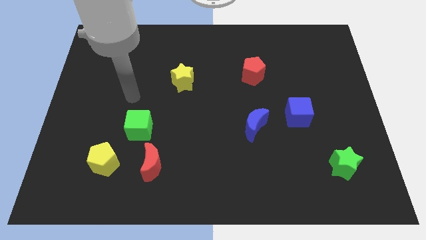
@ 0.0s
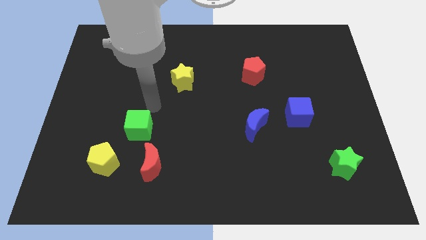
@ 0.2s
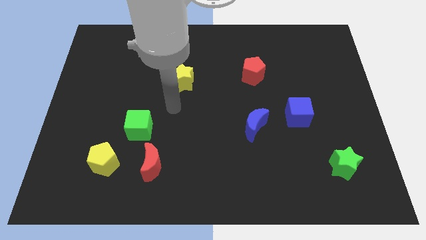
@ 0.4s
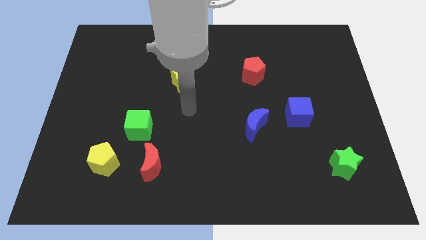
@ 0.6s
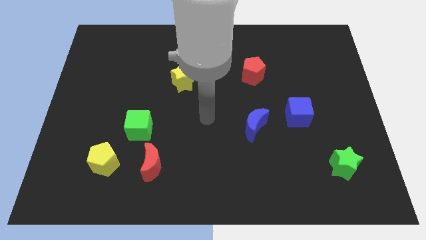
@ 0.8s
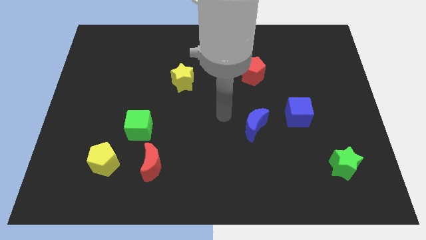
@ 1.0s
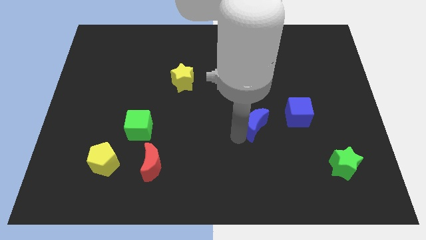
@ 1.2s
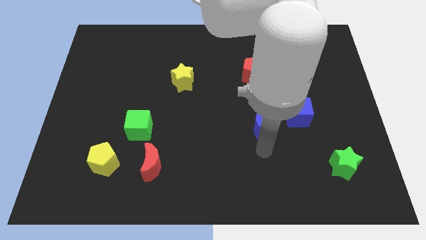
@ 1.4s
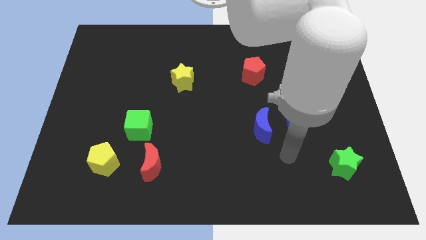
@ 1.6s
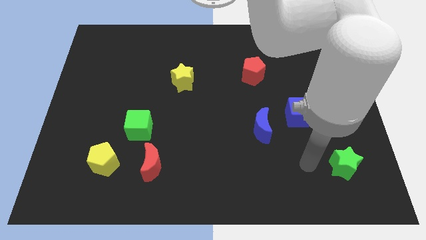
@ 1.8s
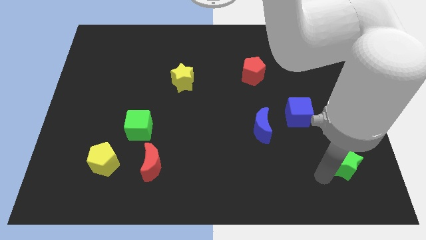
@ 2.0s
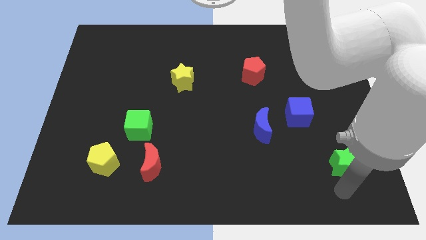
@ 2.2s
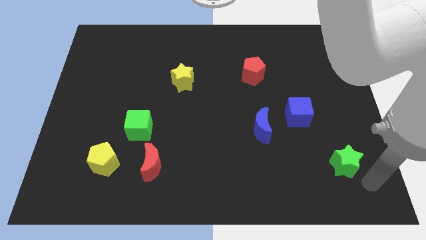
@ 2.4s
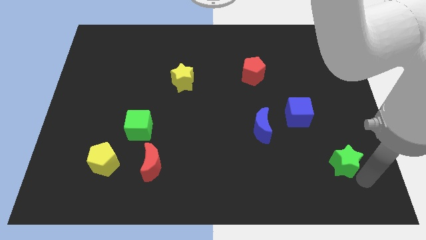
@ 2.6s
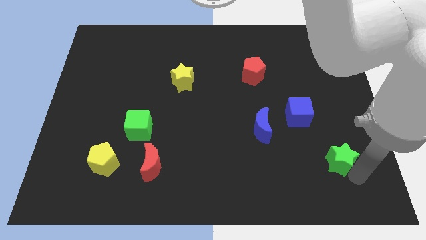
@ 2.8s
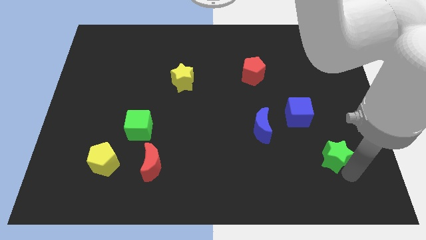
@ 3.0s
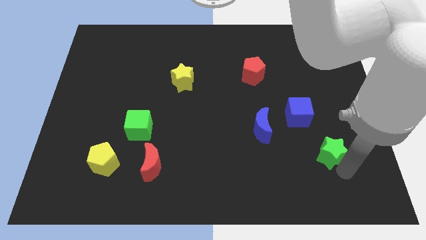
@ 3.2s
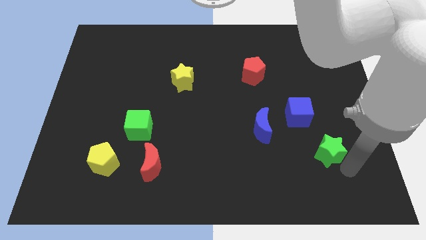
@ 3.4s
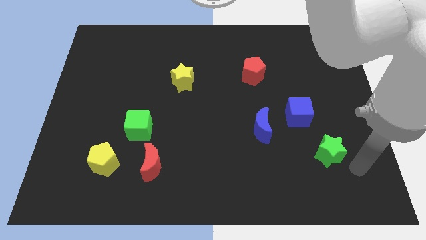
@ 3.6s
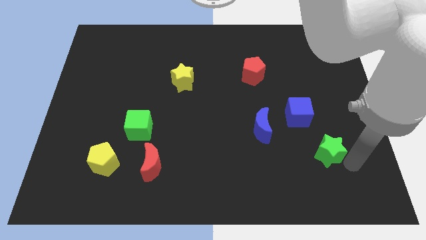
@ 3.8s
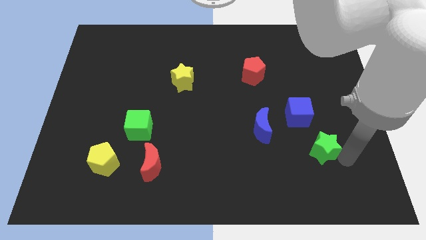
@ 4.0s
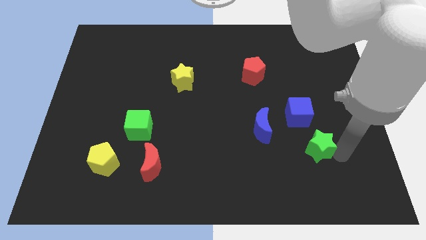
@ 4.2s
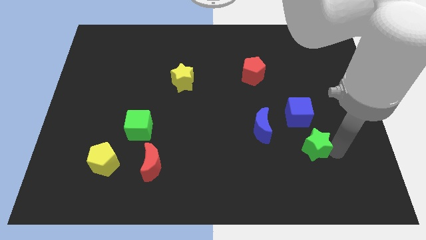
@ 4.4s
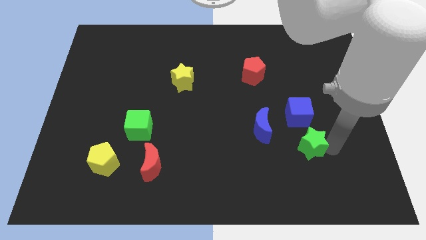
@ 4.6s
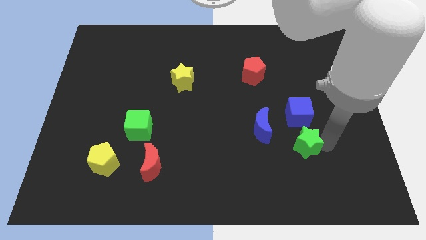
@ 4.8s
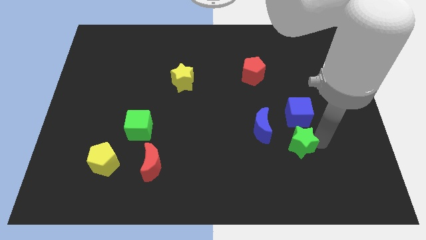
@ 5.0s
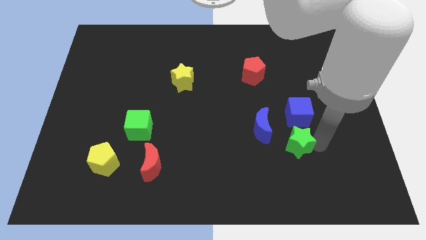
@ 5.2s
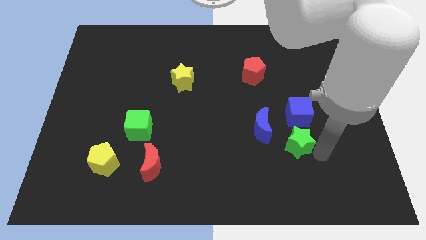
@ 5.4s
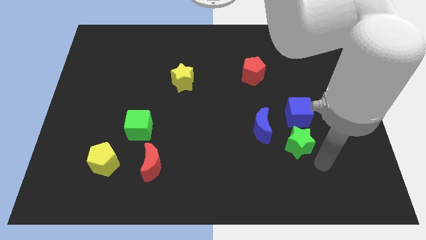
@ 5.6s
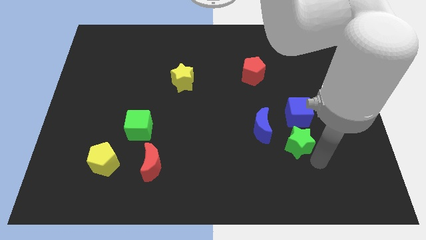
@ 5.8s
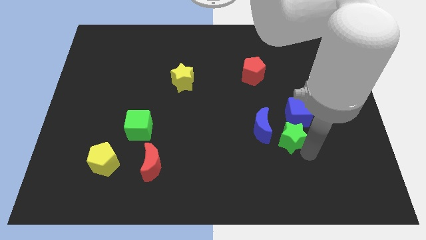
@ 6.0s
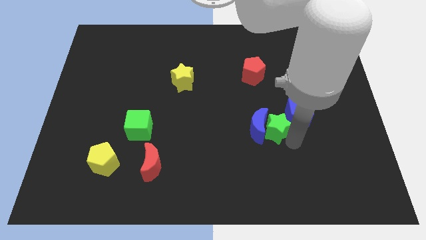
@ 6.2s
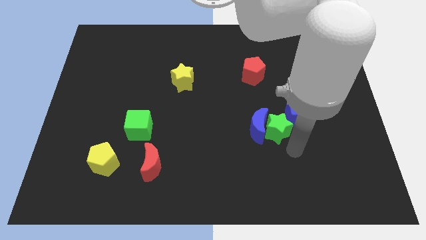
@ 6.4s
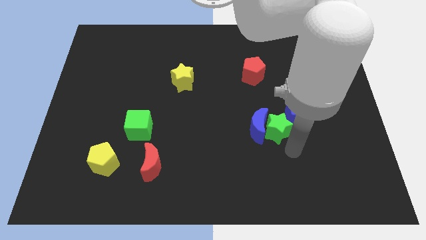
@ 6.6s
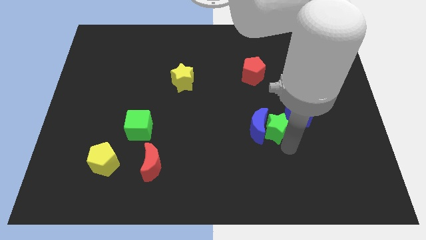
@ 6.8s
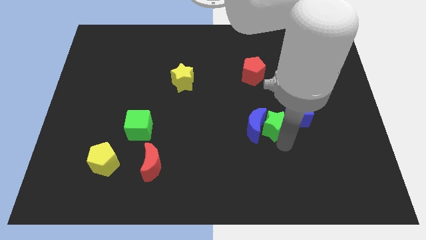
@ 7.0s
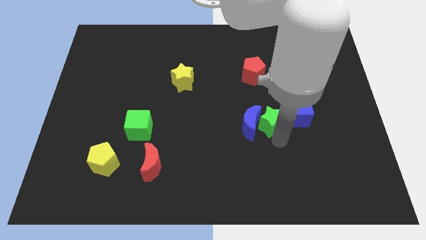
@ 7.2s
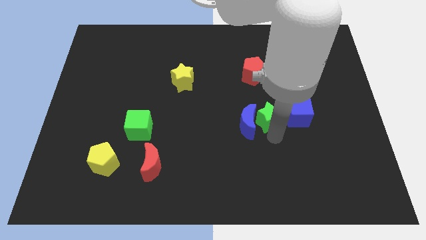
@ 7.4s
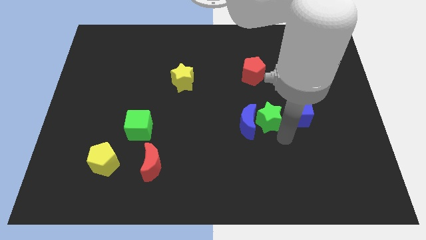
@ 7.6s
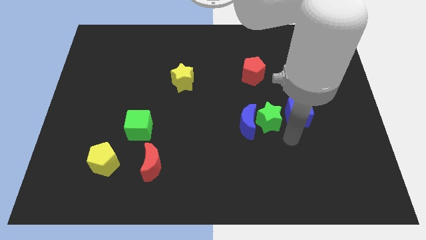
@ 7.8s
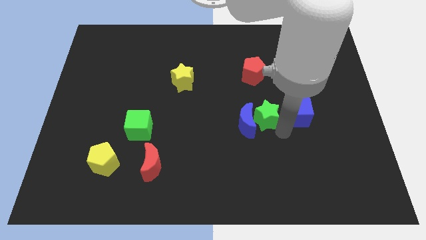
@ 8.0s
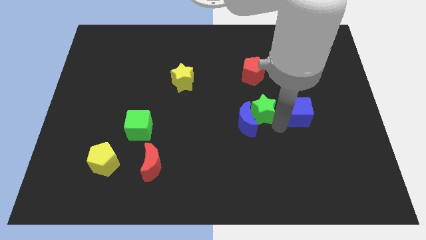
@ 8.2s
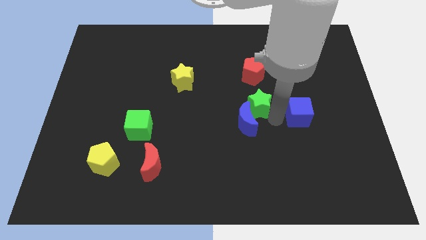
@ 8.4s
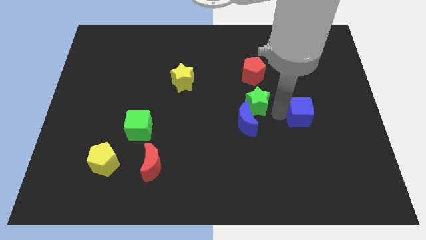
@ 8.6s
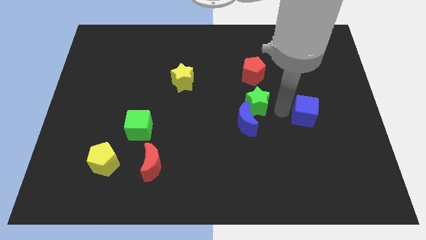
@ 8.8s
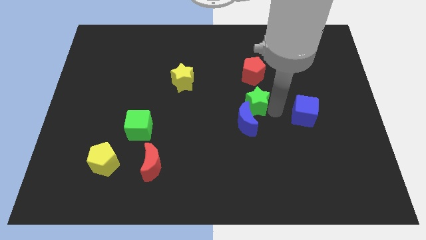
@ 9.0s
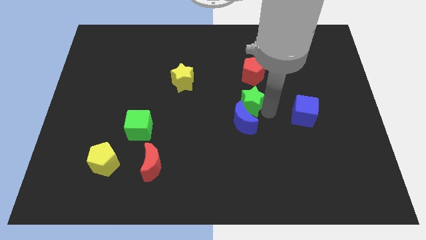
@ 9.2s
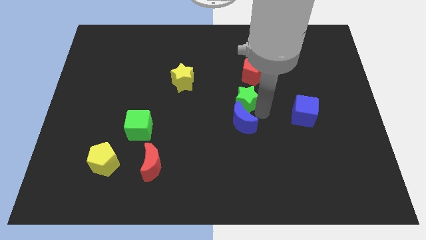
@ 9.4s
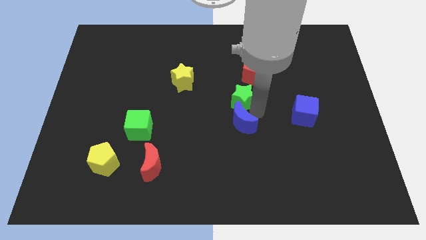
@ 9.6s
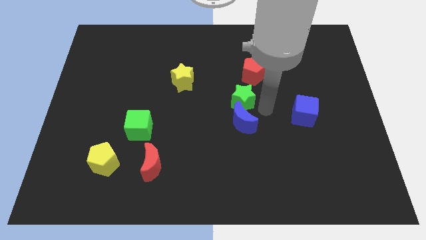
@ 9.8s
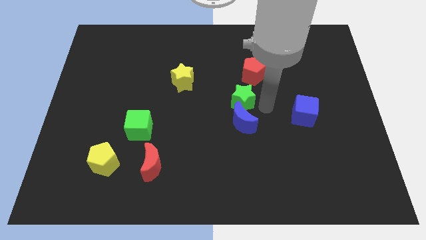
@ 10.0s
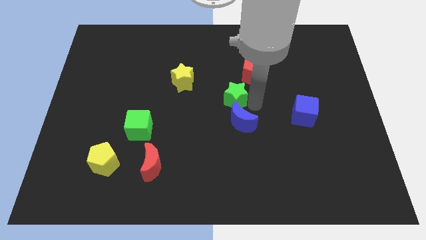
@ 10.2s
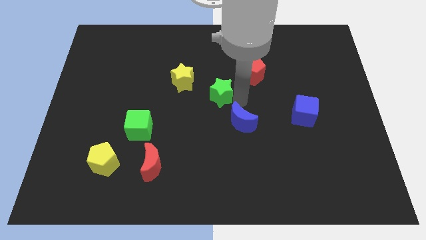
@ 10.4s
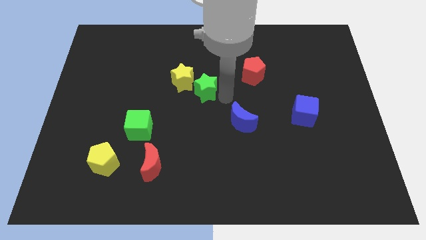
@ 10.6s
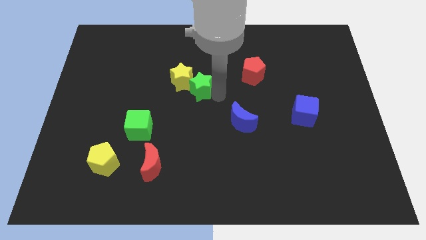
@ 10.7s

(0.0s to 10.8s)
push the green star to the yellow star

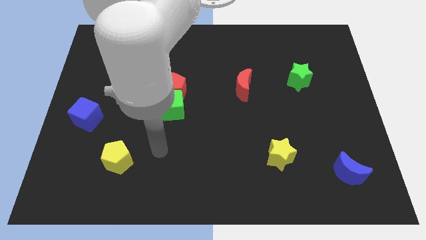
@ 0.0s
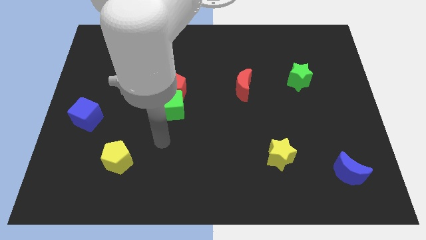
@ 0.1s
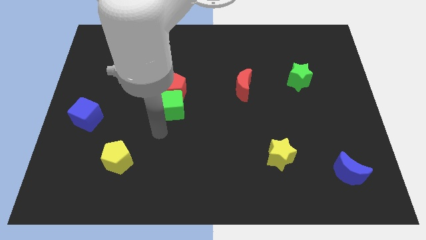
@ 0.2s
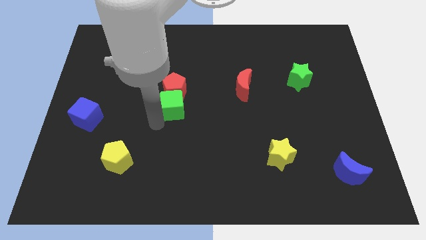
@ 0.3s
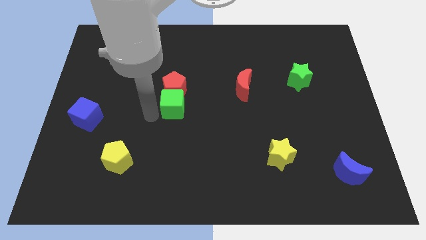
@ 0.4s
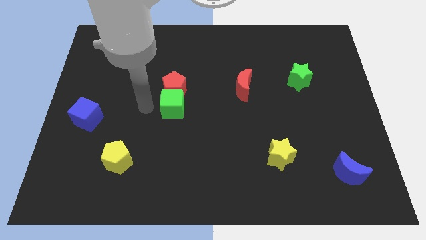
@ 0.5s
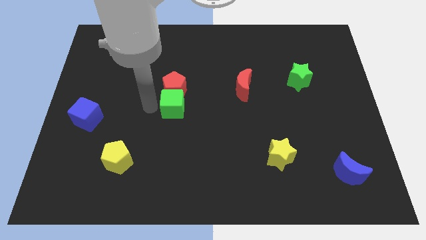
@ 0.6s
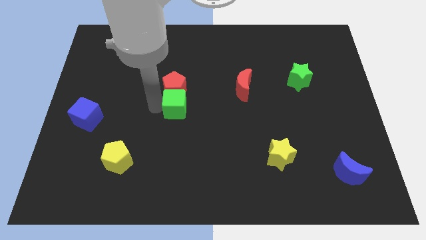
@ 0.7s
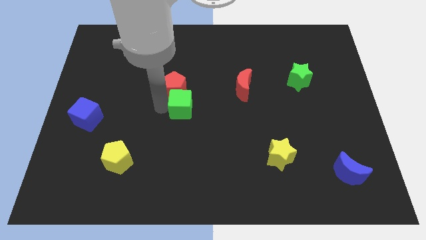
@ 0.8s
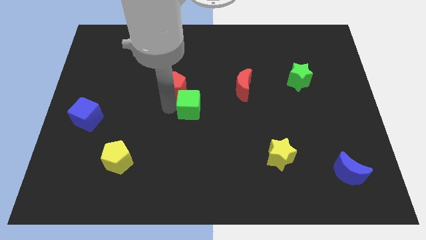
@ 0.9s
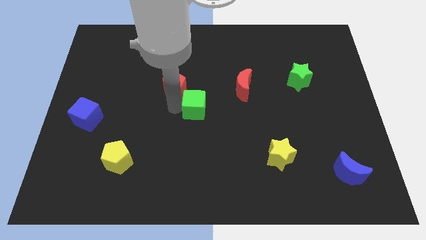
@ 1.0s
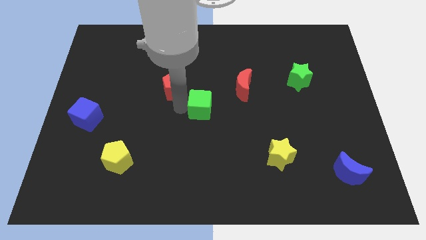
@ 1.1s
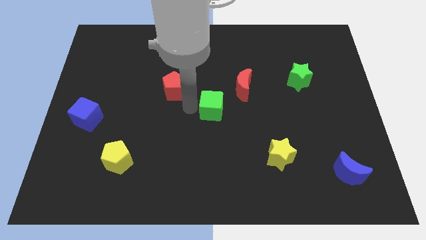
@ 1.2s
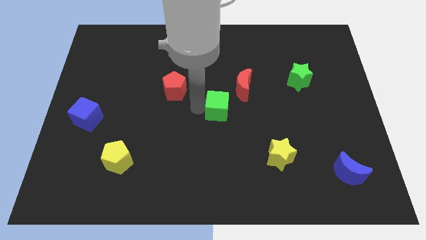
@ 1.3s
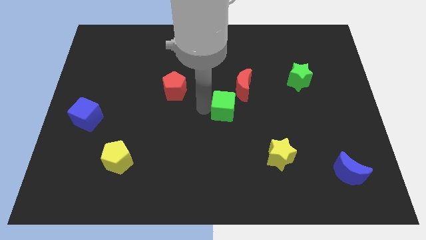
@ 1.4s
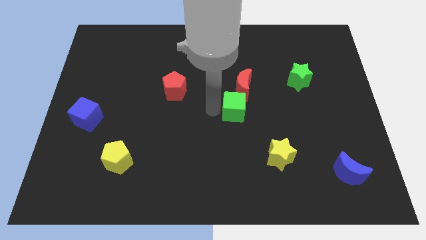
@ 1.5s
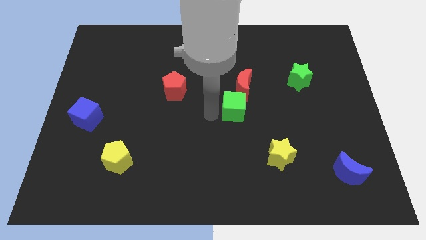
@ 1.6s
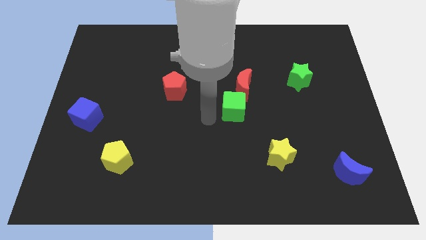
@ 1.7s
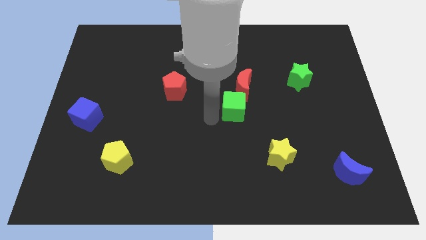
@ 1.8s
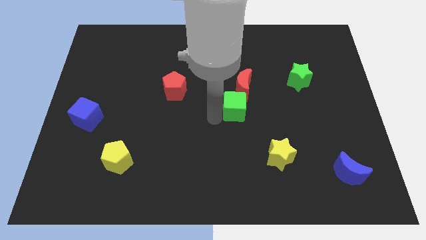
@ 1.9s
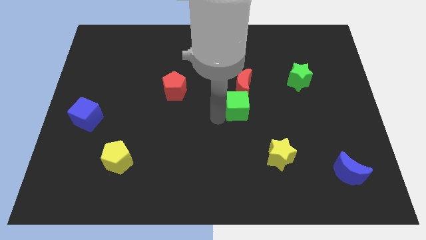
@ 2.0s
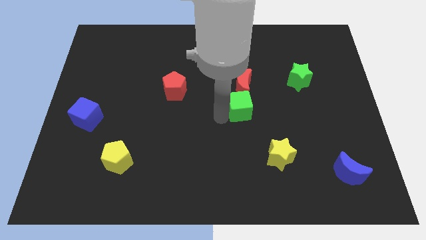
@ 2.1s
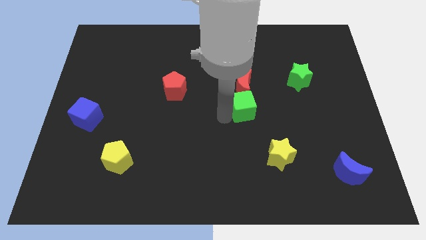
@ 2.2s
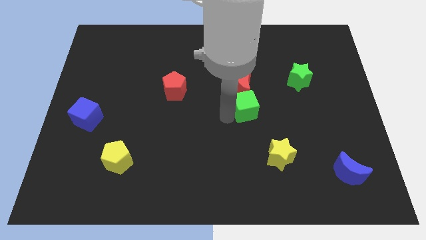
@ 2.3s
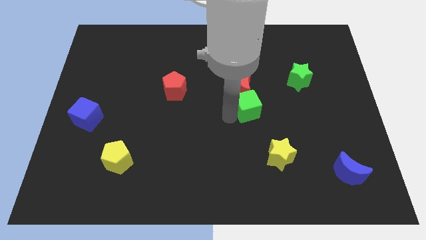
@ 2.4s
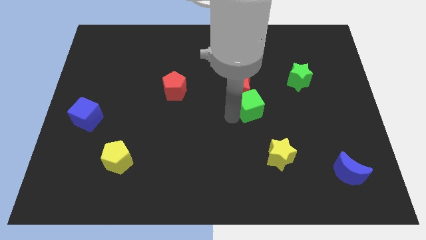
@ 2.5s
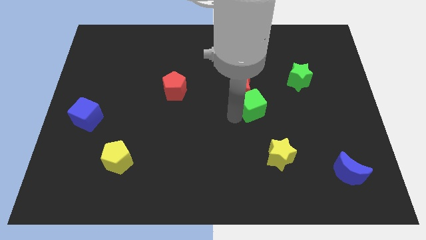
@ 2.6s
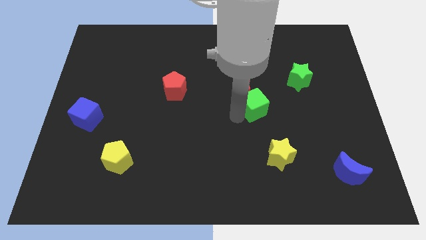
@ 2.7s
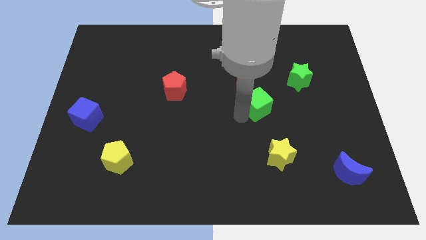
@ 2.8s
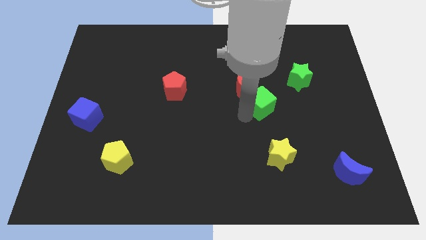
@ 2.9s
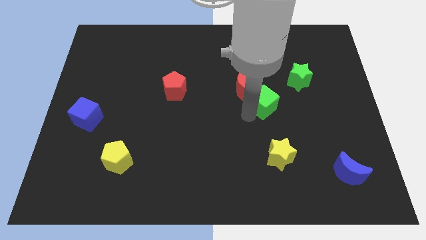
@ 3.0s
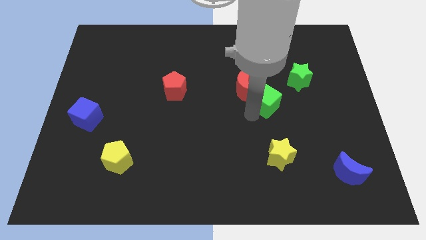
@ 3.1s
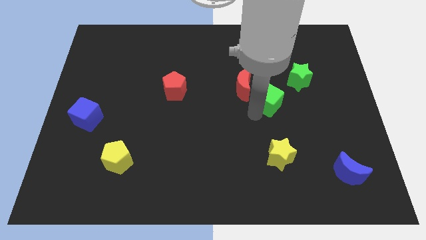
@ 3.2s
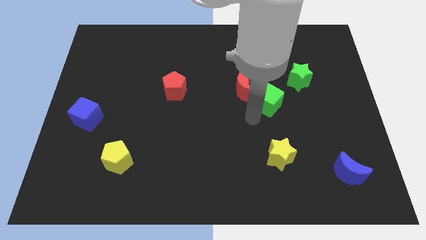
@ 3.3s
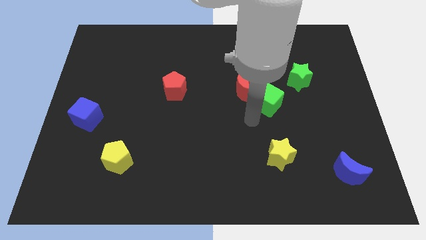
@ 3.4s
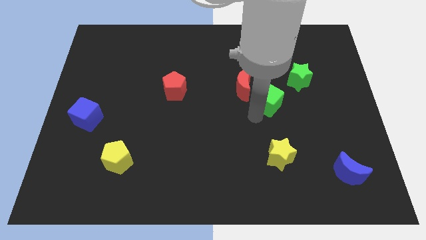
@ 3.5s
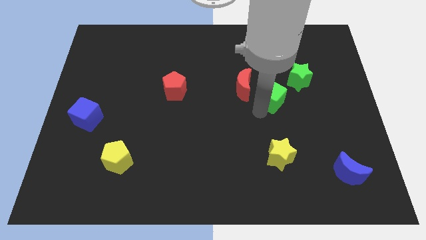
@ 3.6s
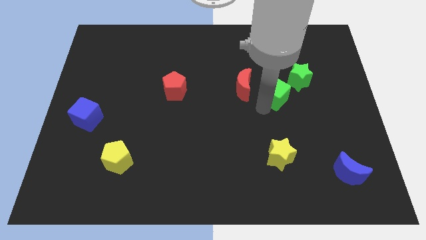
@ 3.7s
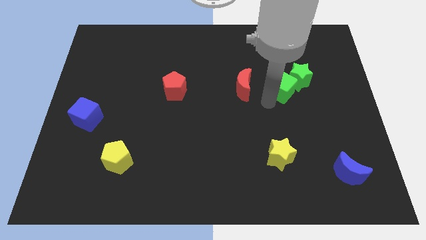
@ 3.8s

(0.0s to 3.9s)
push the green cube close to the green star
